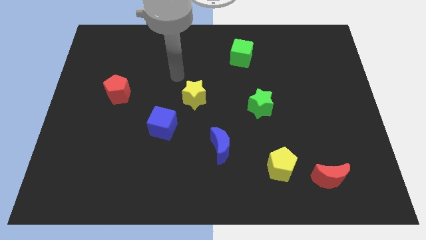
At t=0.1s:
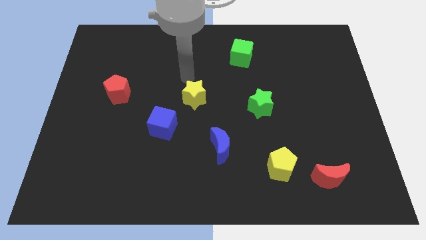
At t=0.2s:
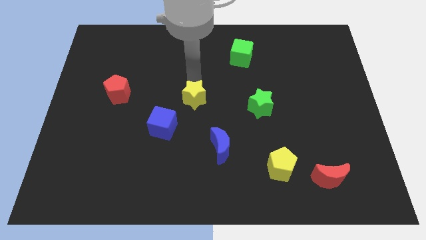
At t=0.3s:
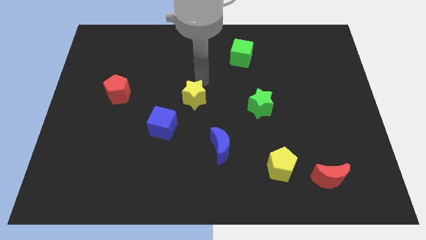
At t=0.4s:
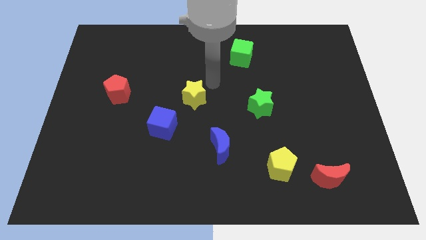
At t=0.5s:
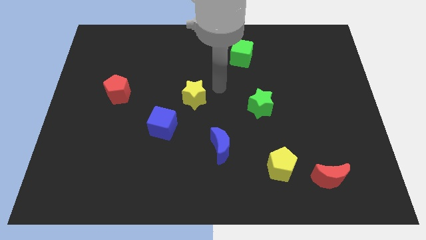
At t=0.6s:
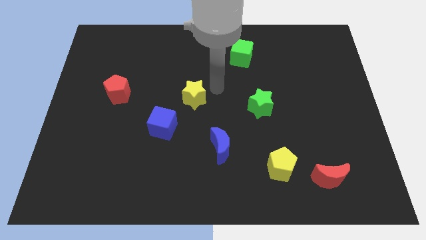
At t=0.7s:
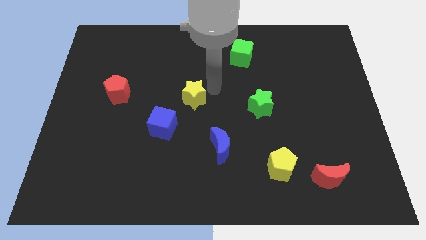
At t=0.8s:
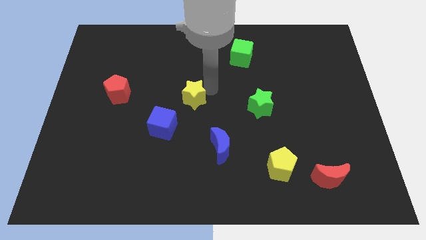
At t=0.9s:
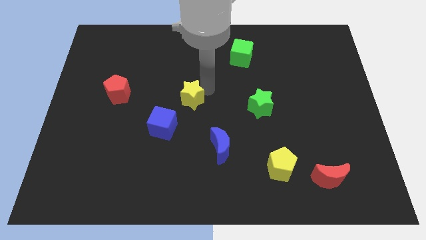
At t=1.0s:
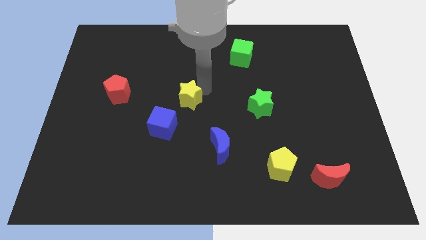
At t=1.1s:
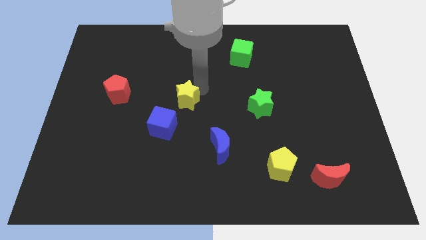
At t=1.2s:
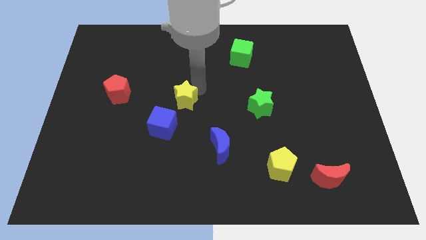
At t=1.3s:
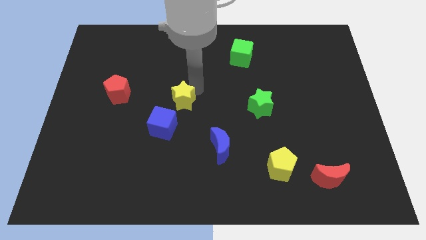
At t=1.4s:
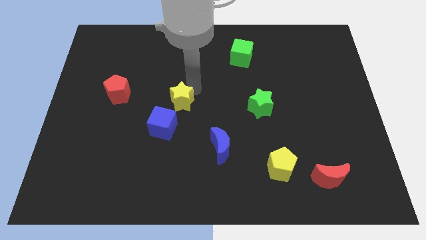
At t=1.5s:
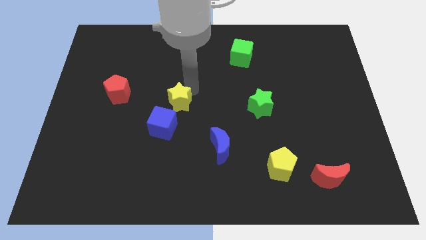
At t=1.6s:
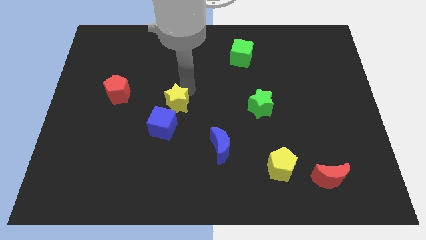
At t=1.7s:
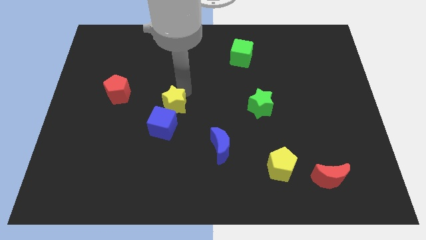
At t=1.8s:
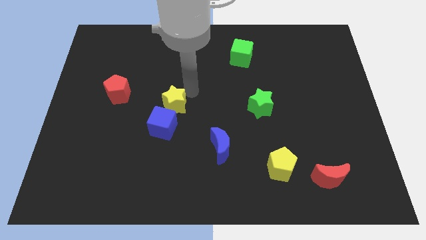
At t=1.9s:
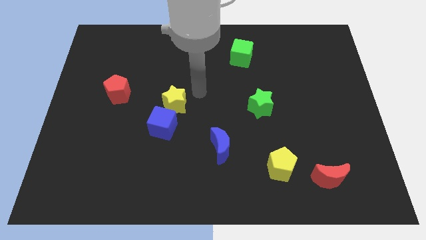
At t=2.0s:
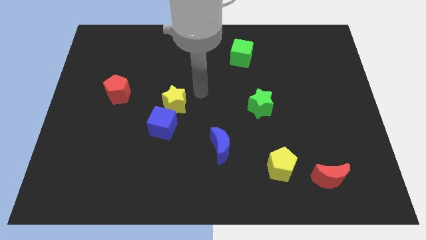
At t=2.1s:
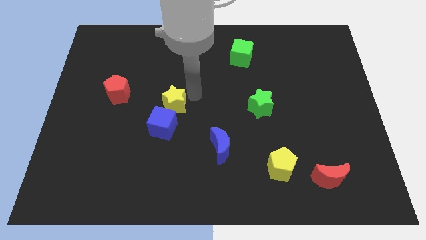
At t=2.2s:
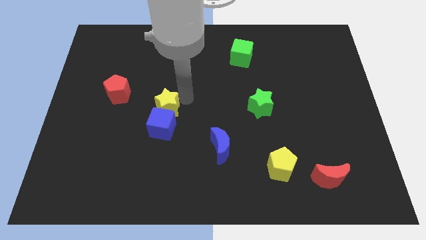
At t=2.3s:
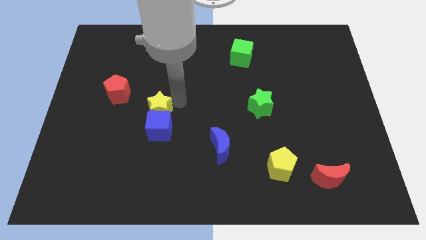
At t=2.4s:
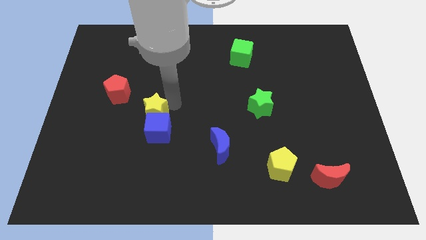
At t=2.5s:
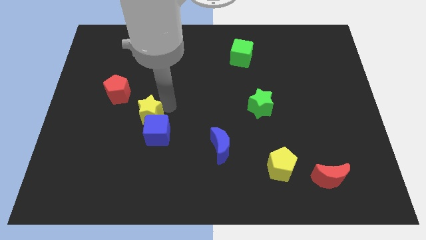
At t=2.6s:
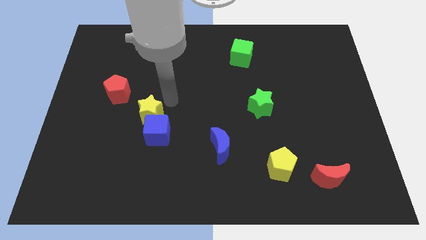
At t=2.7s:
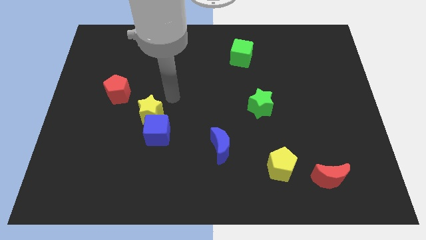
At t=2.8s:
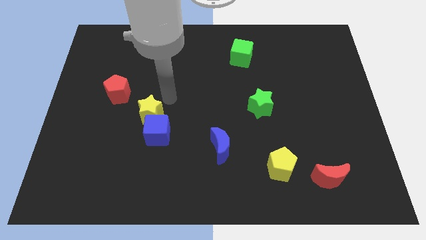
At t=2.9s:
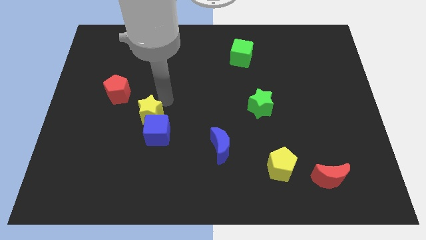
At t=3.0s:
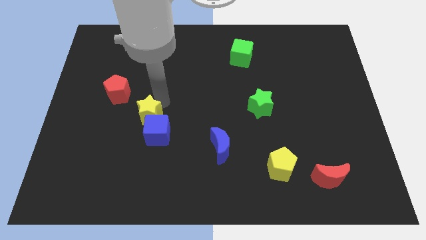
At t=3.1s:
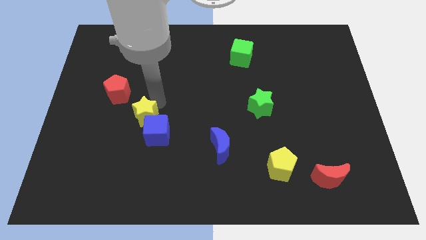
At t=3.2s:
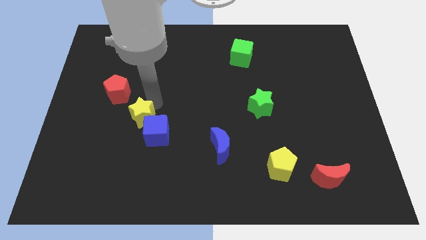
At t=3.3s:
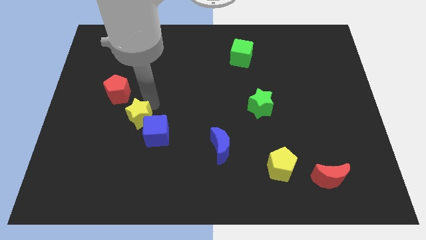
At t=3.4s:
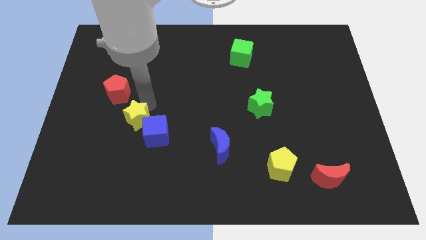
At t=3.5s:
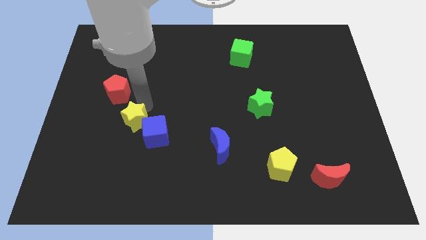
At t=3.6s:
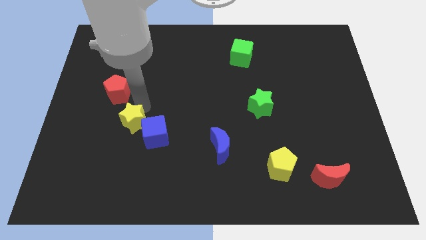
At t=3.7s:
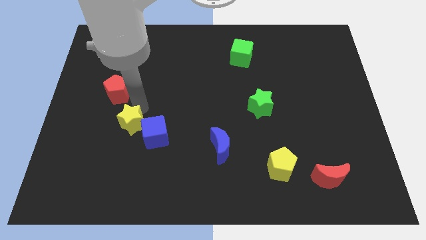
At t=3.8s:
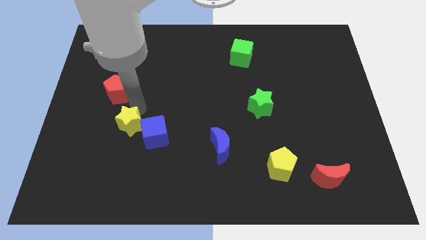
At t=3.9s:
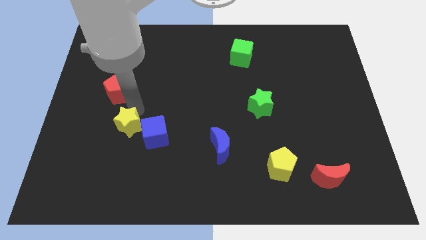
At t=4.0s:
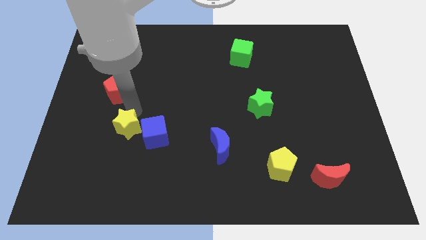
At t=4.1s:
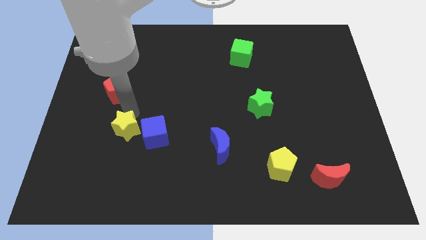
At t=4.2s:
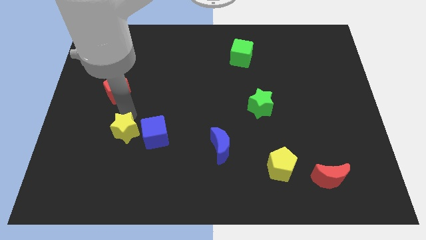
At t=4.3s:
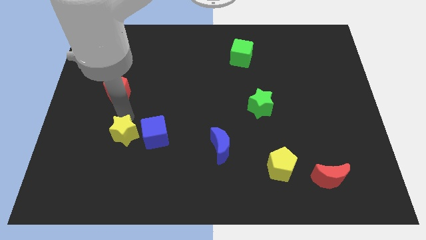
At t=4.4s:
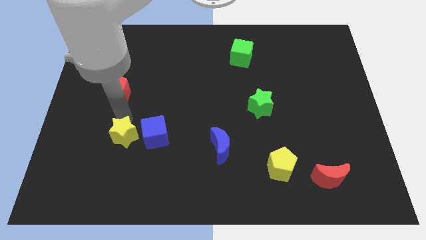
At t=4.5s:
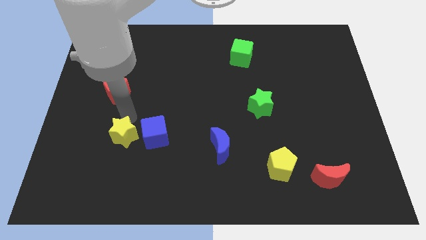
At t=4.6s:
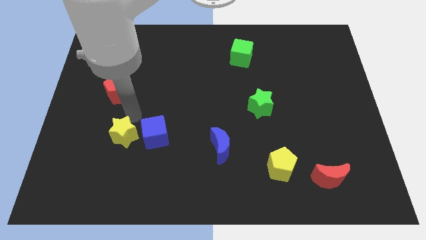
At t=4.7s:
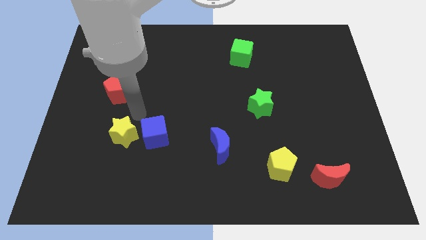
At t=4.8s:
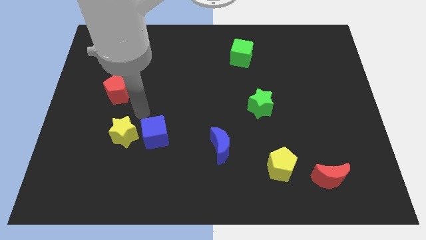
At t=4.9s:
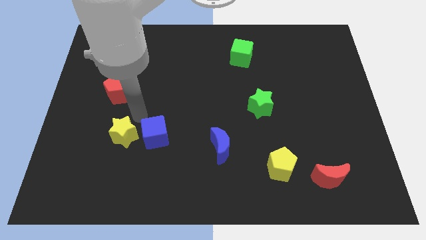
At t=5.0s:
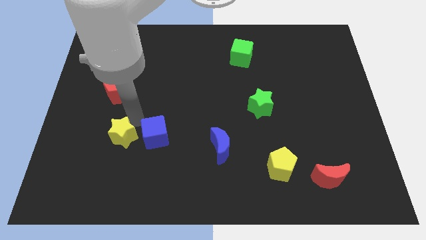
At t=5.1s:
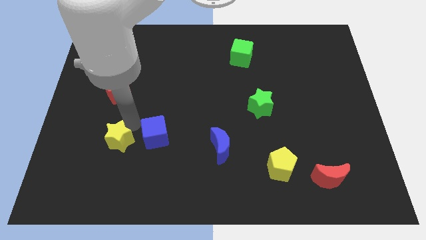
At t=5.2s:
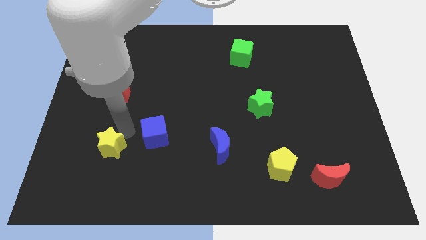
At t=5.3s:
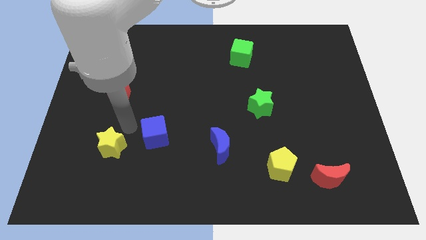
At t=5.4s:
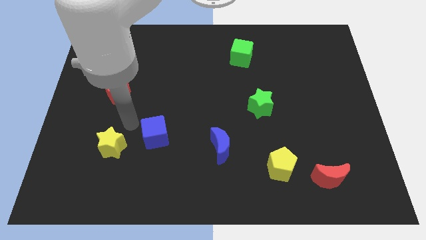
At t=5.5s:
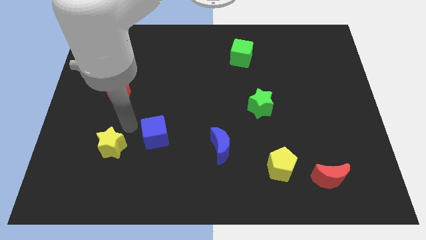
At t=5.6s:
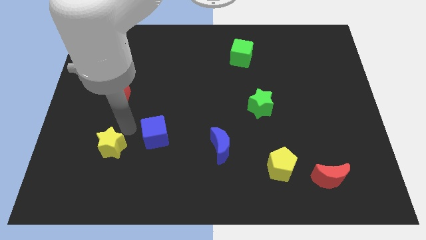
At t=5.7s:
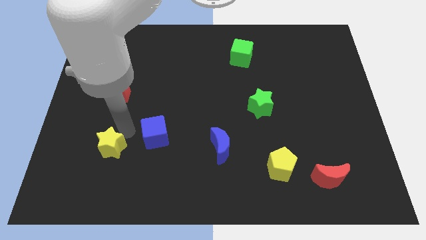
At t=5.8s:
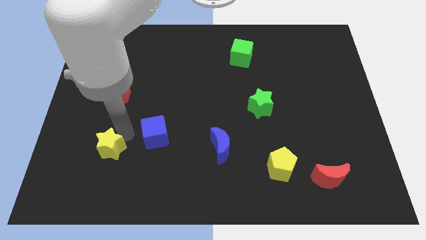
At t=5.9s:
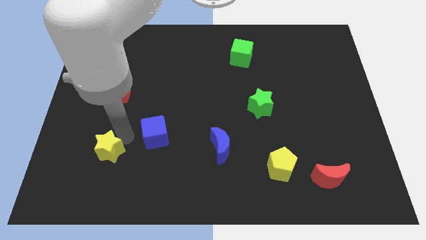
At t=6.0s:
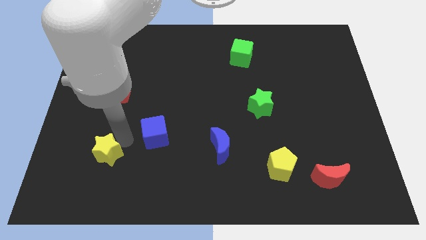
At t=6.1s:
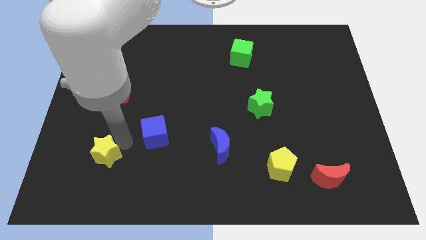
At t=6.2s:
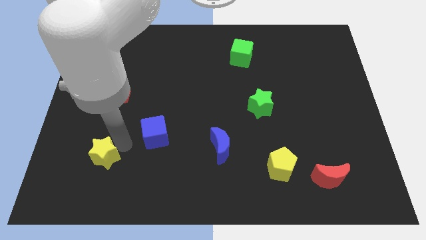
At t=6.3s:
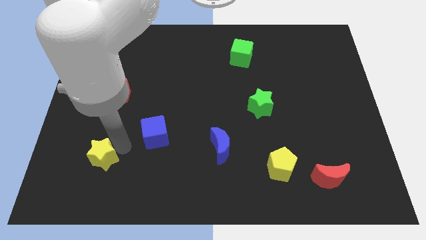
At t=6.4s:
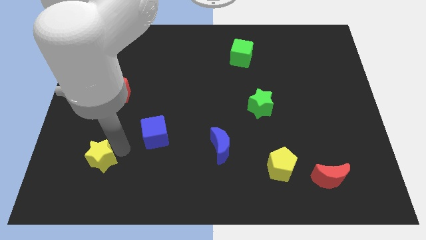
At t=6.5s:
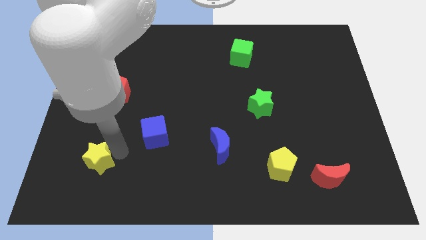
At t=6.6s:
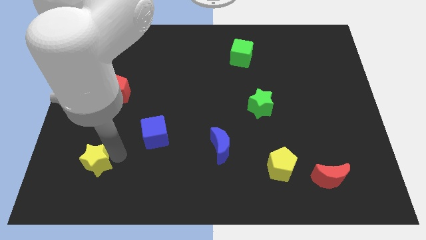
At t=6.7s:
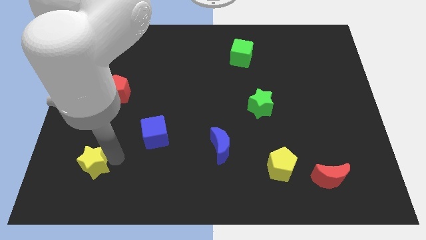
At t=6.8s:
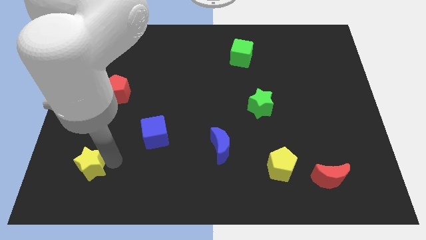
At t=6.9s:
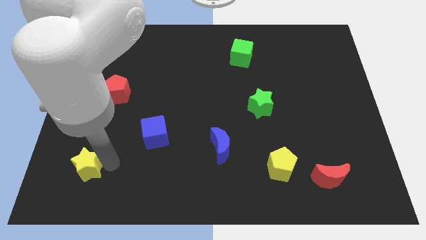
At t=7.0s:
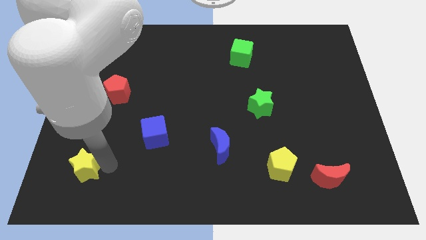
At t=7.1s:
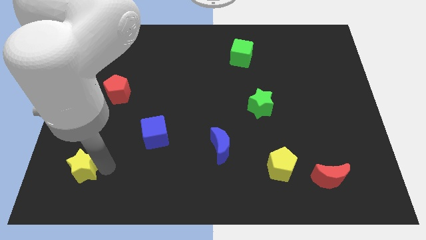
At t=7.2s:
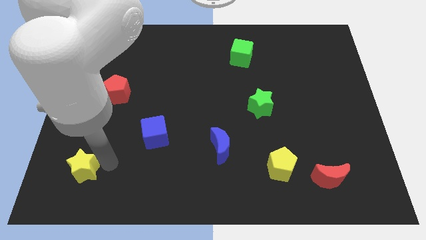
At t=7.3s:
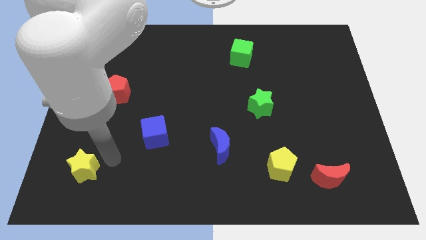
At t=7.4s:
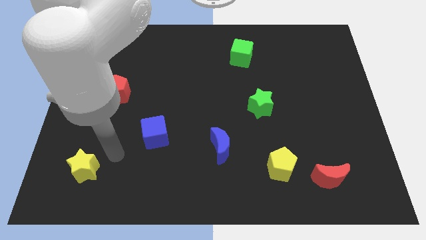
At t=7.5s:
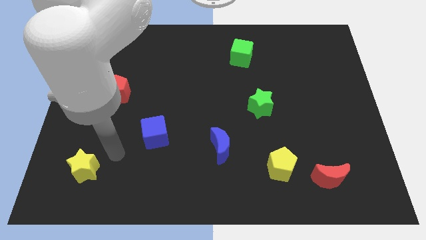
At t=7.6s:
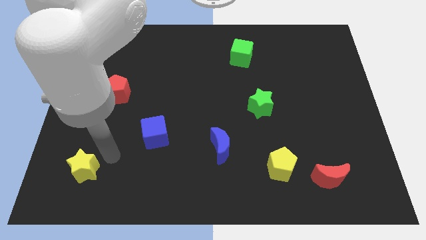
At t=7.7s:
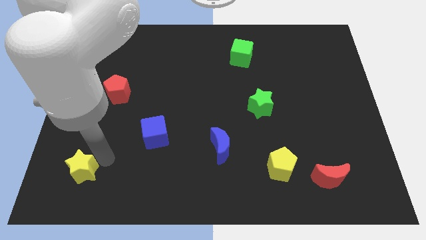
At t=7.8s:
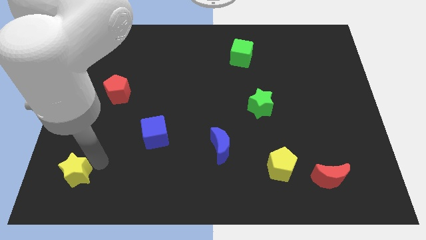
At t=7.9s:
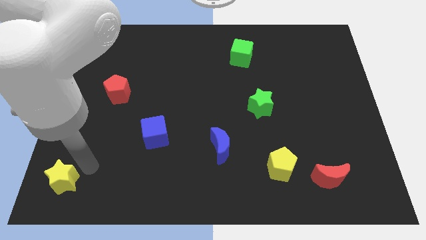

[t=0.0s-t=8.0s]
move the yellow star to the bottom left
